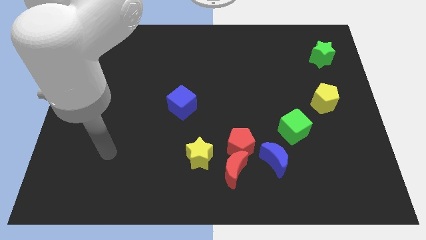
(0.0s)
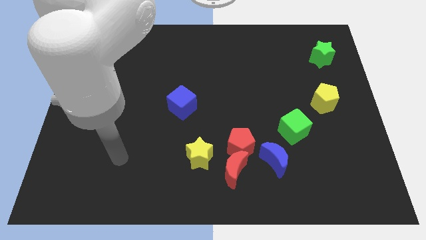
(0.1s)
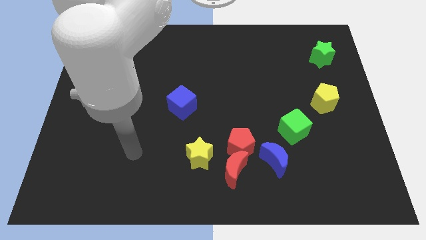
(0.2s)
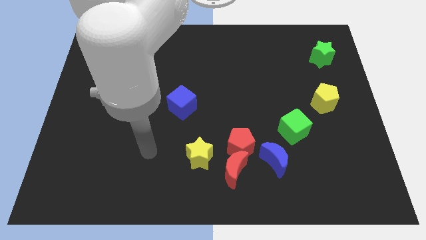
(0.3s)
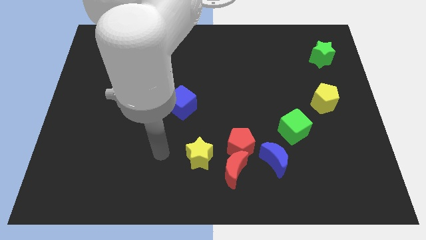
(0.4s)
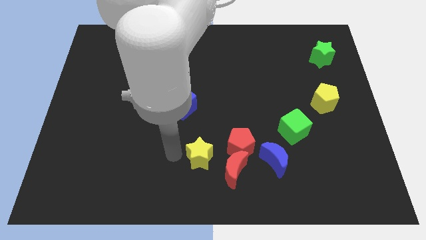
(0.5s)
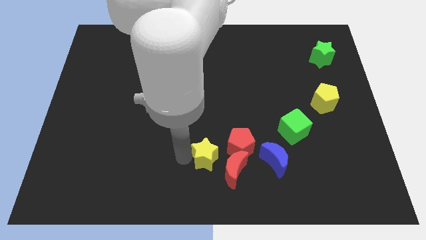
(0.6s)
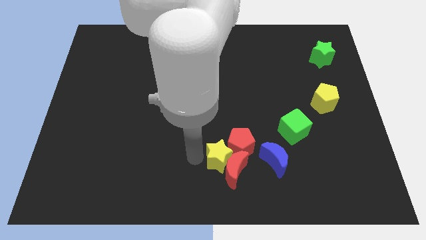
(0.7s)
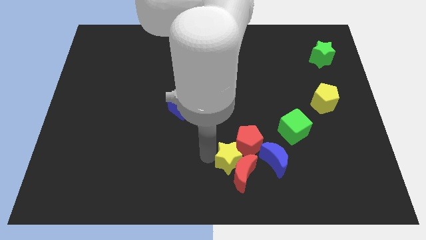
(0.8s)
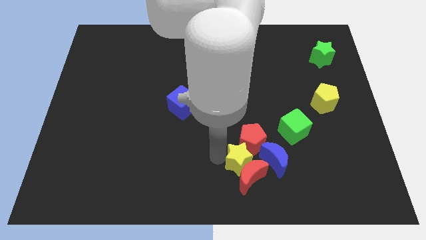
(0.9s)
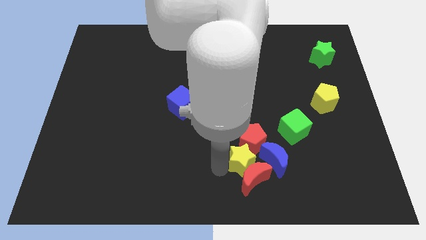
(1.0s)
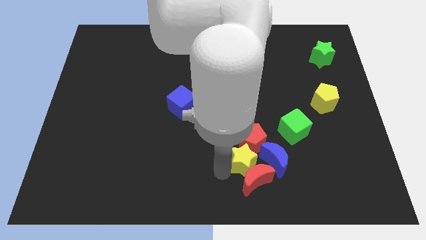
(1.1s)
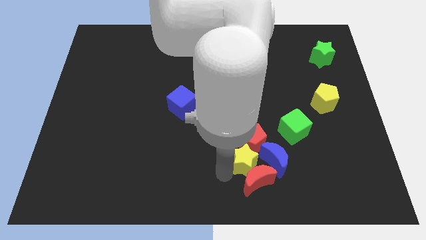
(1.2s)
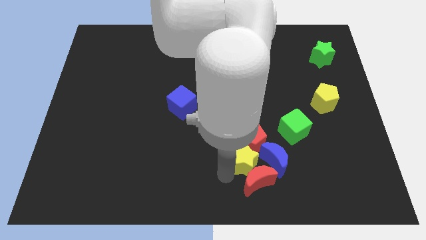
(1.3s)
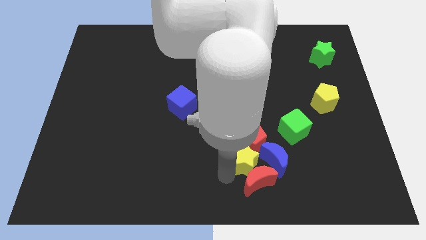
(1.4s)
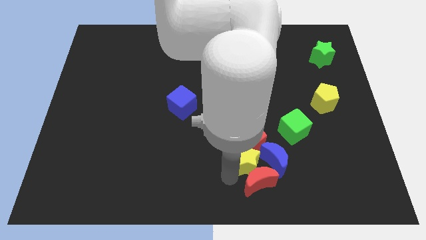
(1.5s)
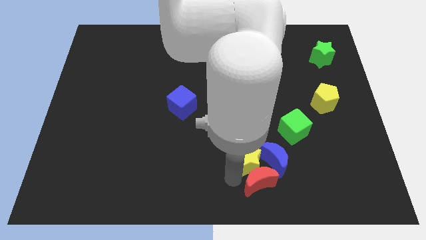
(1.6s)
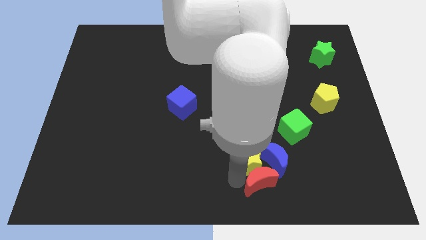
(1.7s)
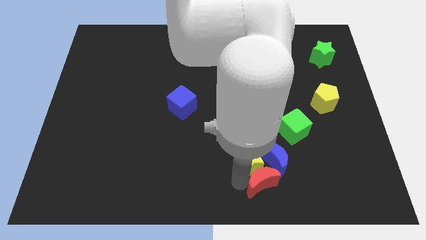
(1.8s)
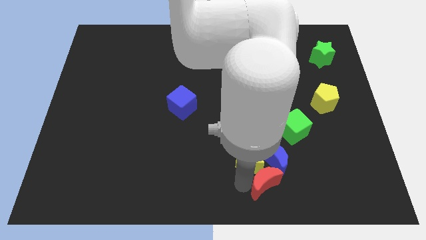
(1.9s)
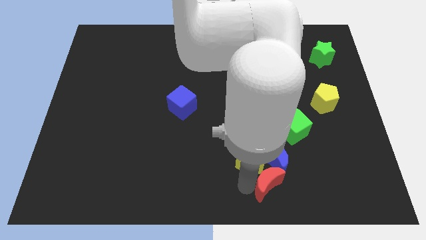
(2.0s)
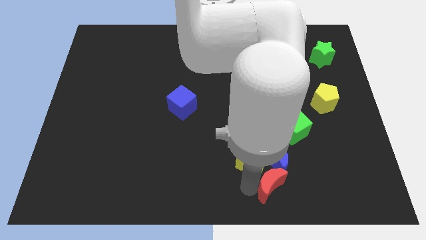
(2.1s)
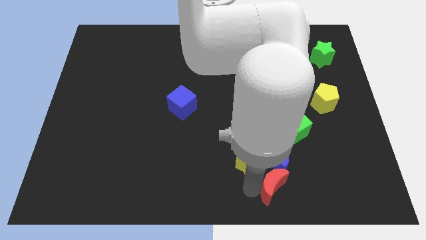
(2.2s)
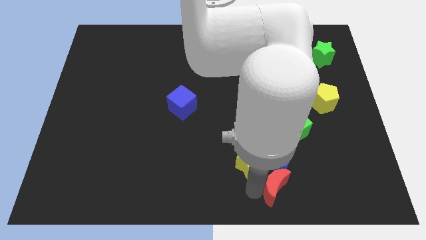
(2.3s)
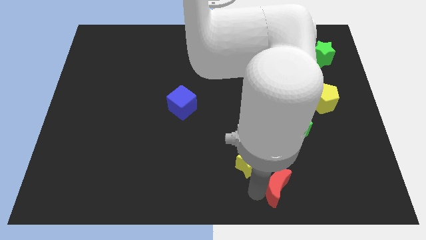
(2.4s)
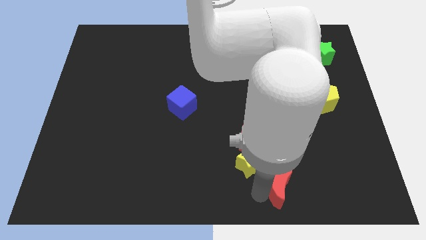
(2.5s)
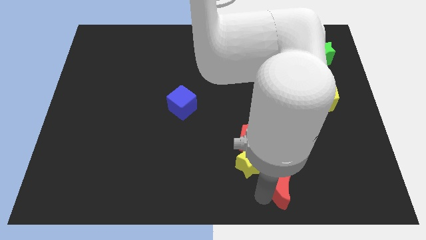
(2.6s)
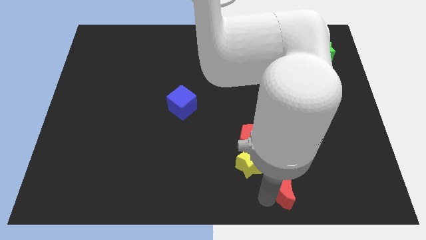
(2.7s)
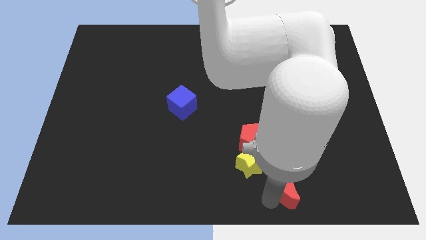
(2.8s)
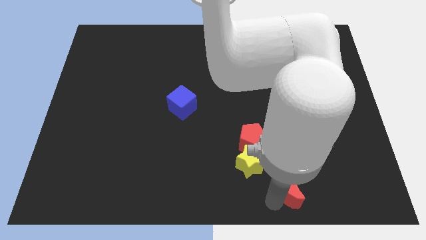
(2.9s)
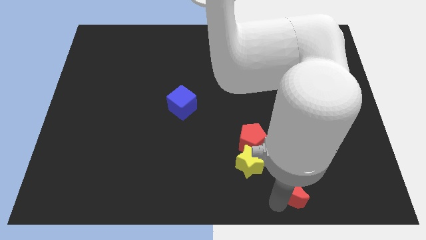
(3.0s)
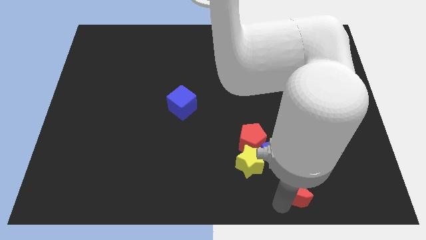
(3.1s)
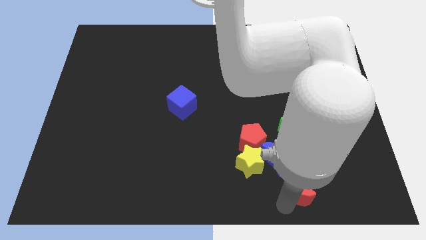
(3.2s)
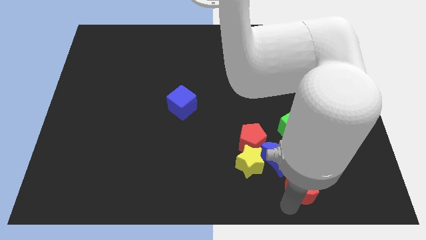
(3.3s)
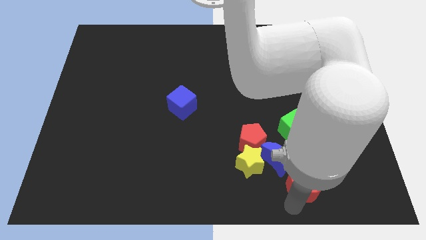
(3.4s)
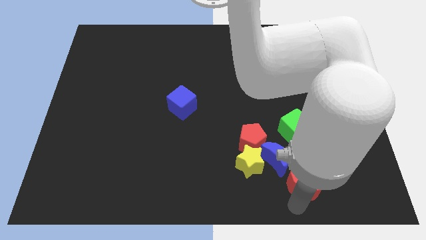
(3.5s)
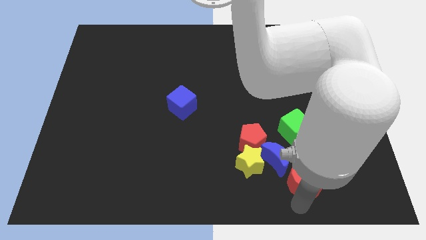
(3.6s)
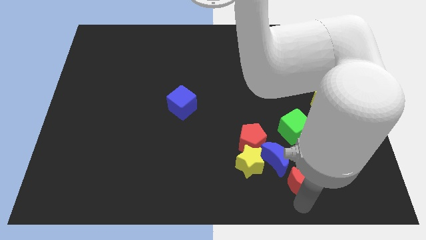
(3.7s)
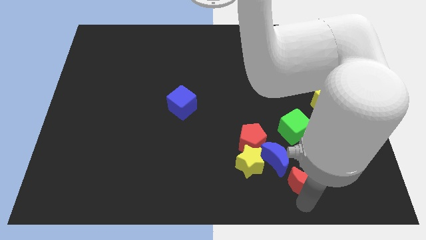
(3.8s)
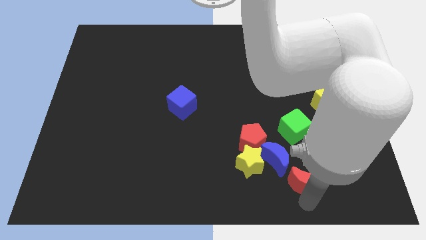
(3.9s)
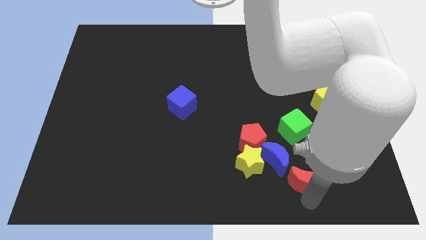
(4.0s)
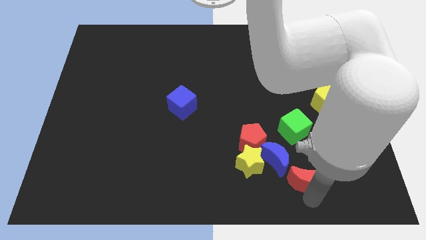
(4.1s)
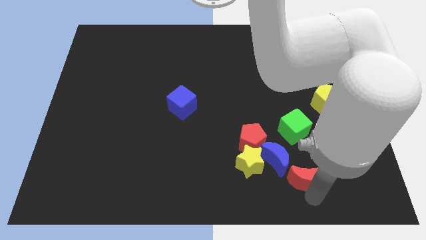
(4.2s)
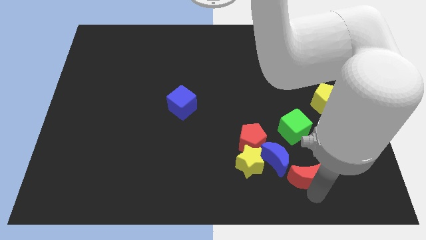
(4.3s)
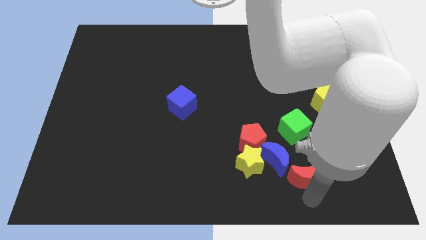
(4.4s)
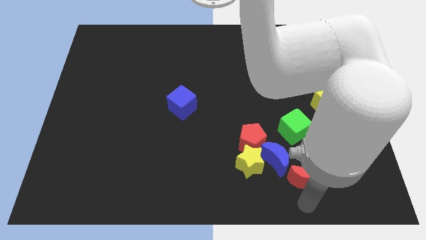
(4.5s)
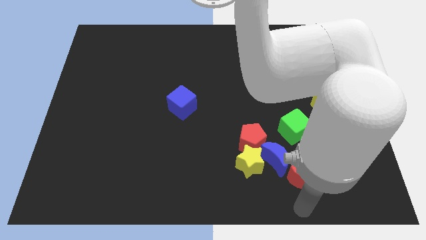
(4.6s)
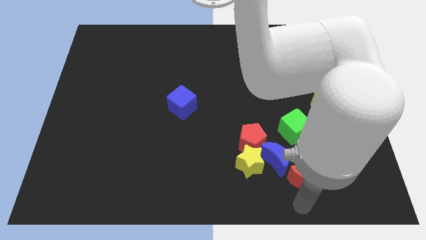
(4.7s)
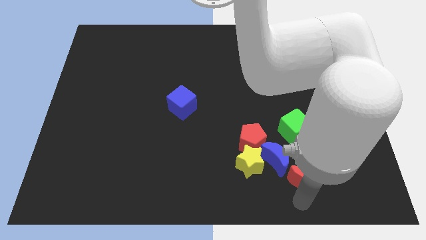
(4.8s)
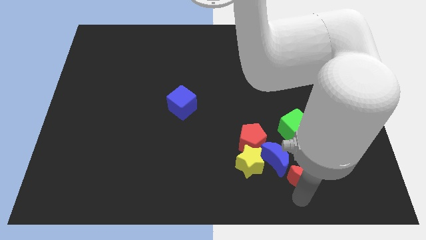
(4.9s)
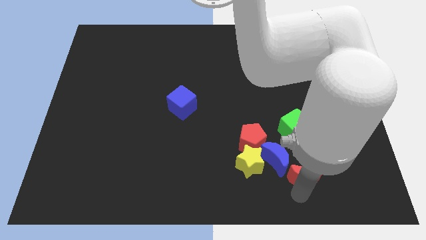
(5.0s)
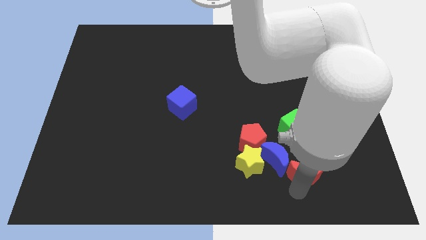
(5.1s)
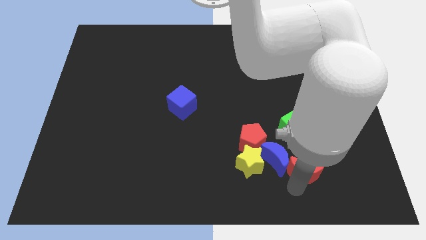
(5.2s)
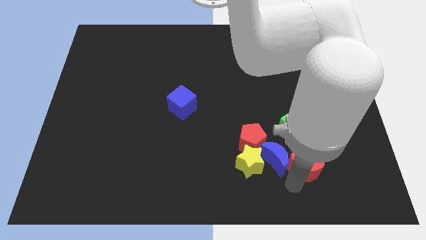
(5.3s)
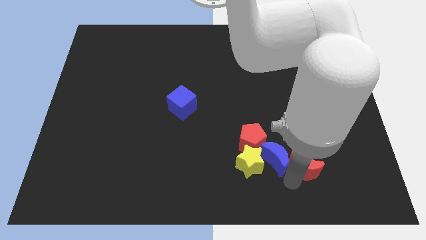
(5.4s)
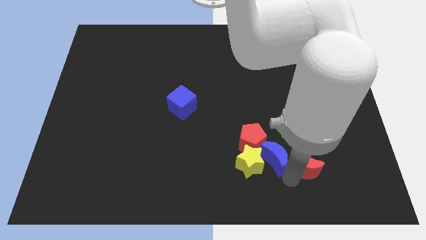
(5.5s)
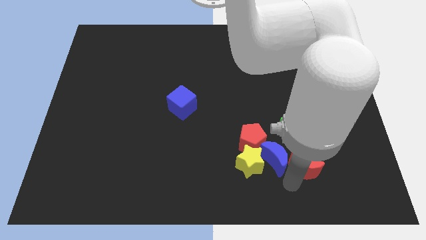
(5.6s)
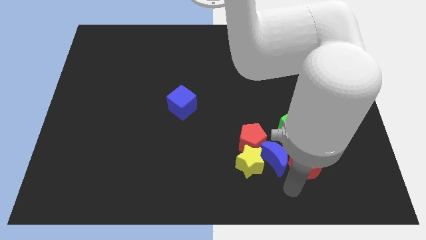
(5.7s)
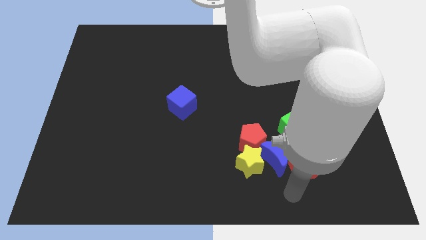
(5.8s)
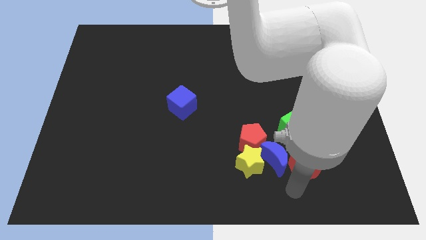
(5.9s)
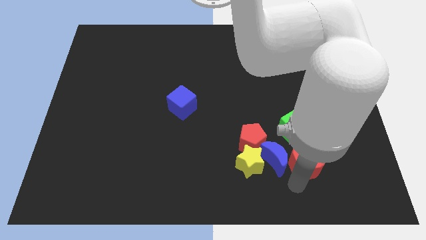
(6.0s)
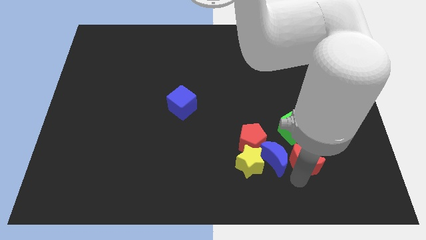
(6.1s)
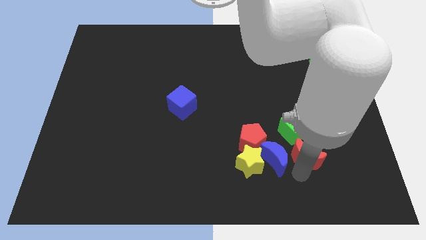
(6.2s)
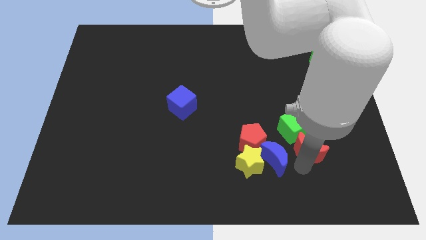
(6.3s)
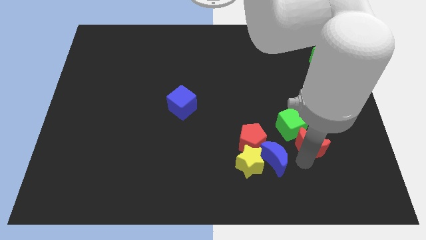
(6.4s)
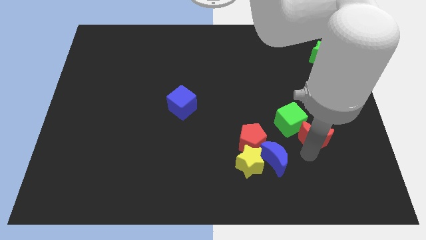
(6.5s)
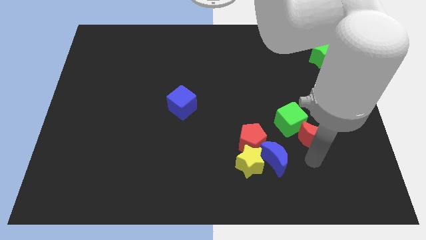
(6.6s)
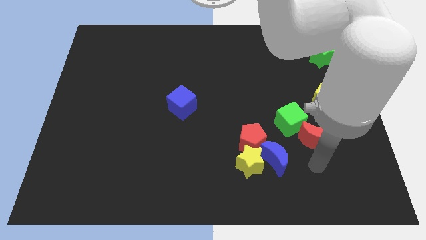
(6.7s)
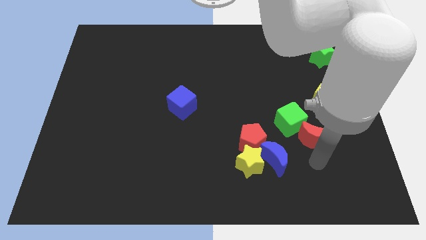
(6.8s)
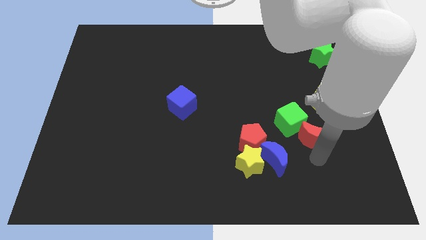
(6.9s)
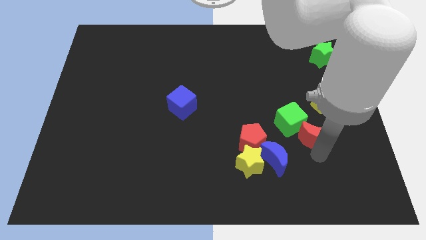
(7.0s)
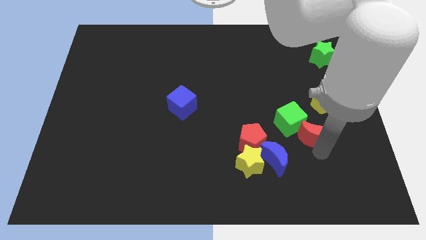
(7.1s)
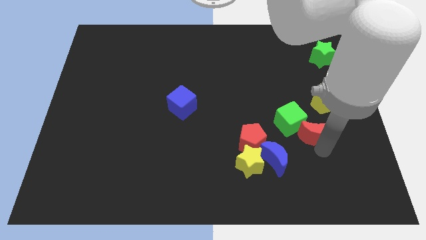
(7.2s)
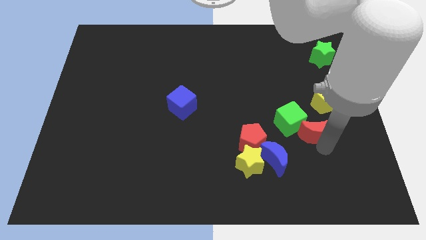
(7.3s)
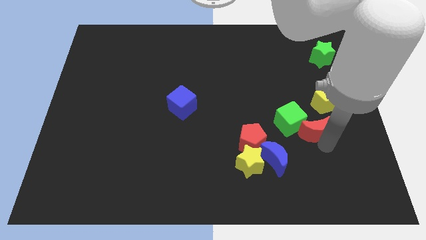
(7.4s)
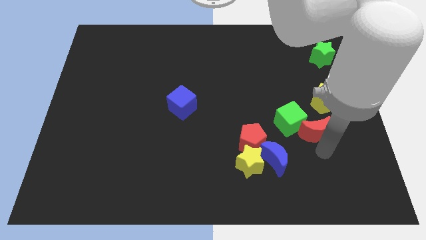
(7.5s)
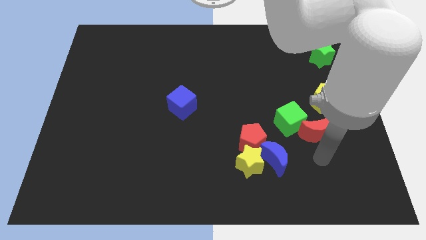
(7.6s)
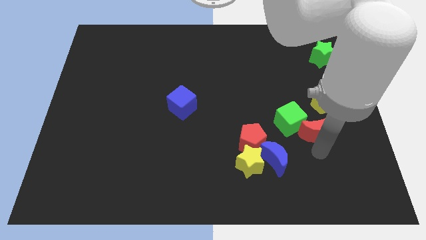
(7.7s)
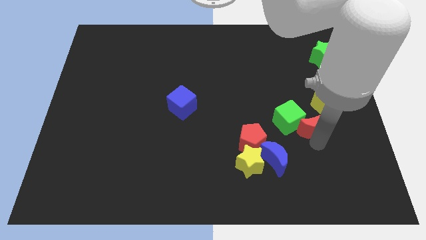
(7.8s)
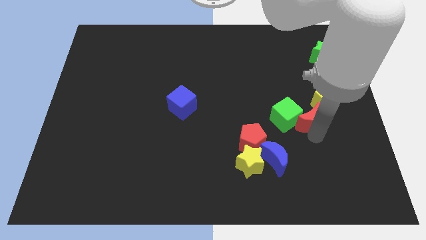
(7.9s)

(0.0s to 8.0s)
slide the red moon to the top right side of the green cube
